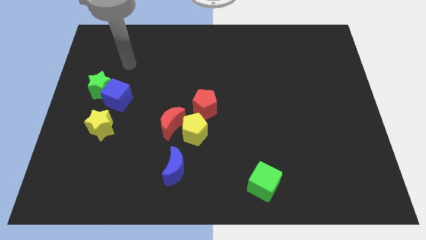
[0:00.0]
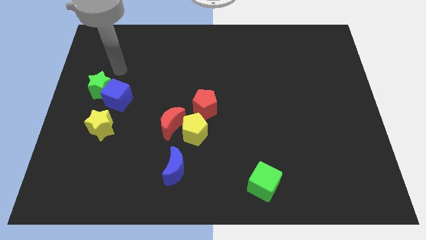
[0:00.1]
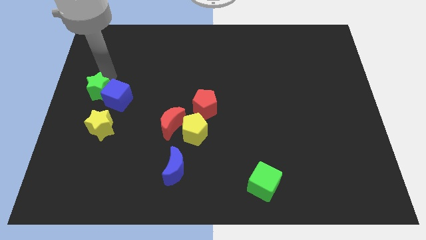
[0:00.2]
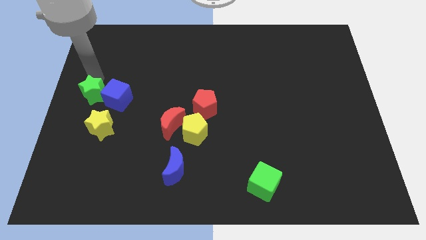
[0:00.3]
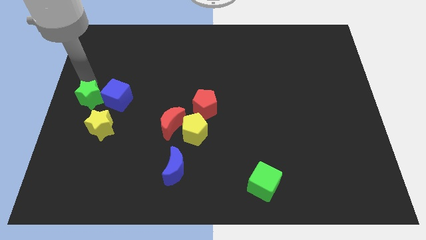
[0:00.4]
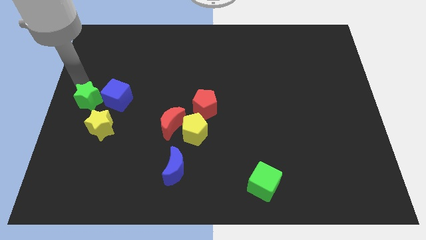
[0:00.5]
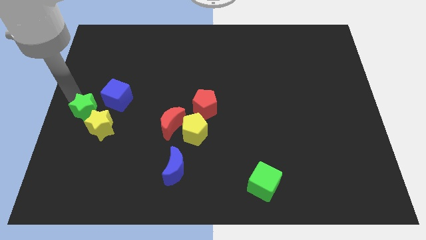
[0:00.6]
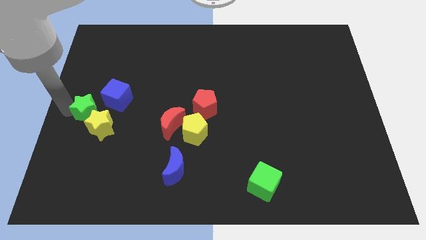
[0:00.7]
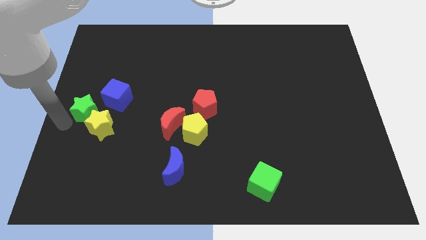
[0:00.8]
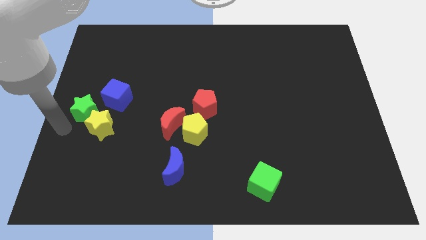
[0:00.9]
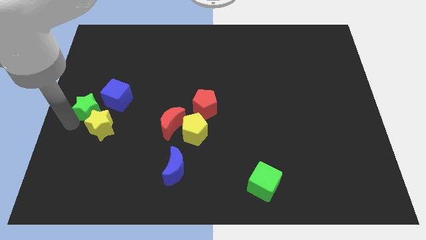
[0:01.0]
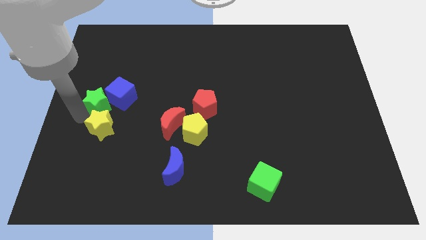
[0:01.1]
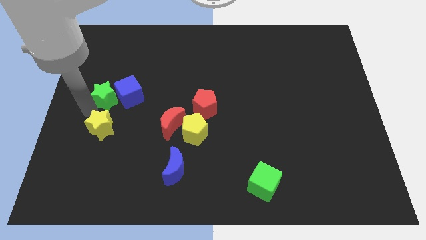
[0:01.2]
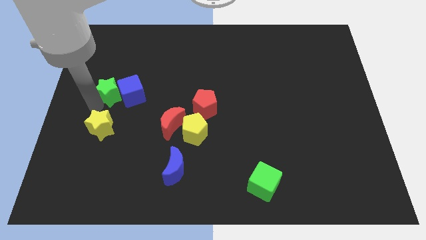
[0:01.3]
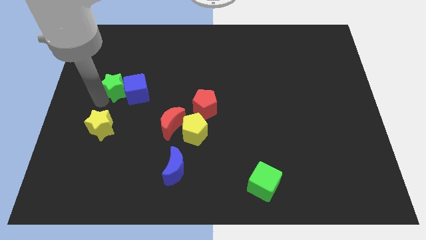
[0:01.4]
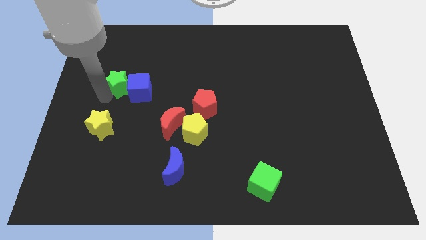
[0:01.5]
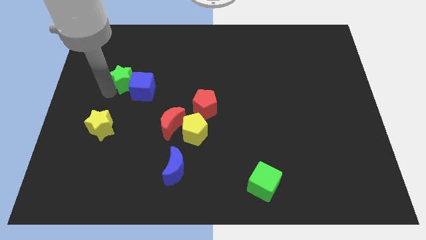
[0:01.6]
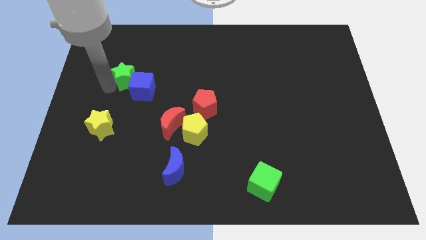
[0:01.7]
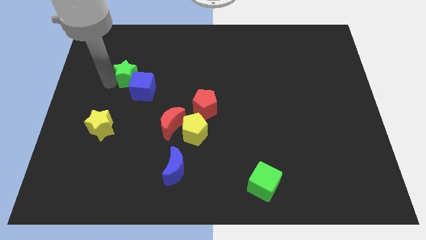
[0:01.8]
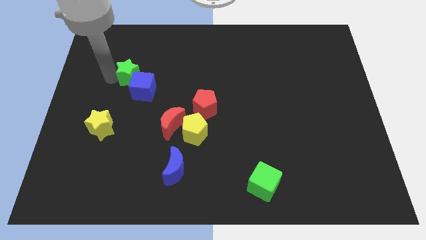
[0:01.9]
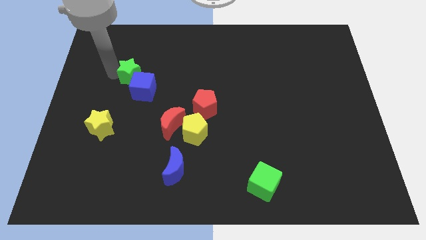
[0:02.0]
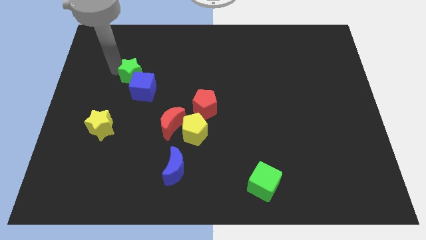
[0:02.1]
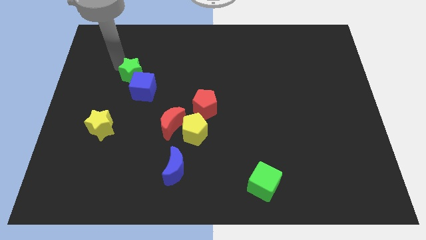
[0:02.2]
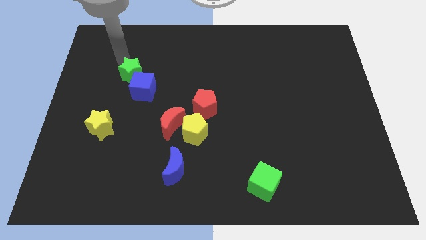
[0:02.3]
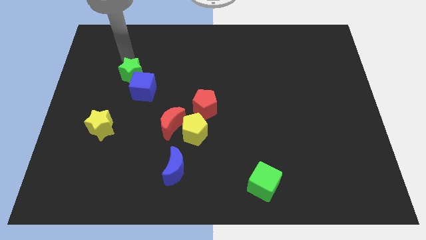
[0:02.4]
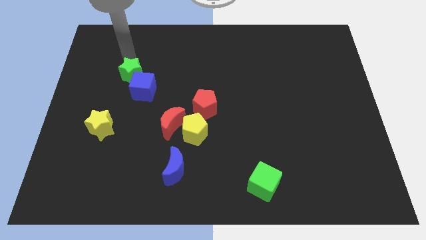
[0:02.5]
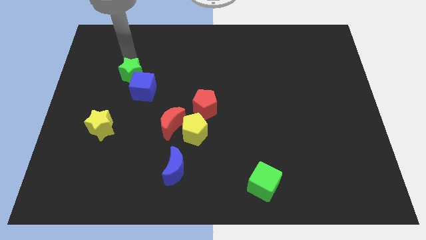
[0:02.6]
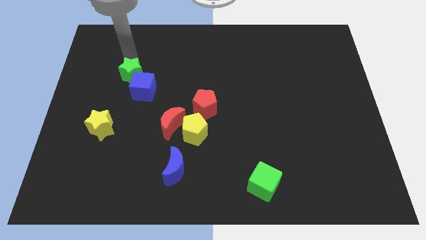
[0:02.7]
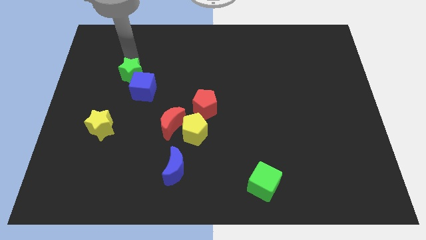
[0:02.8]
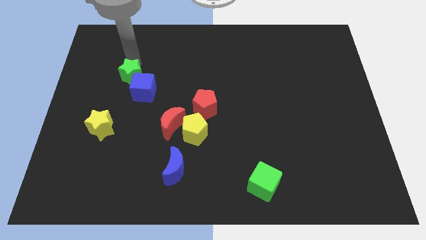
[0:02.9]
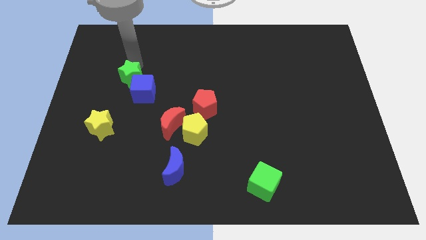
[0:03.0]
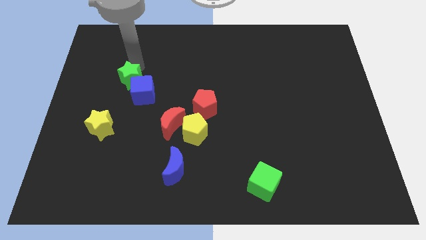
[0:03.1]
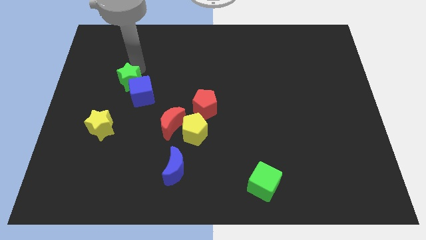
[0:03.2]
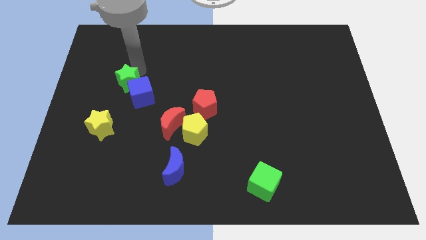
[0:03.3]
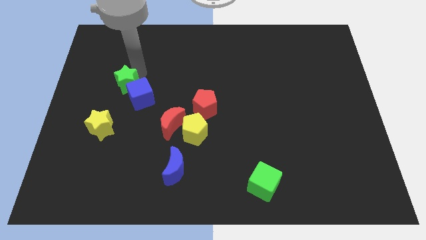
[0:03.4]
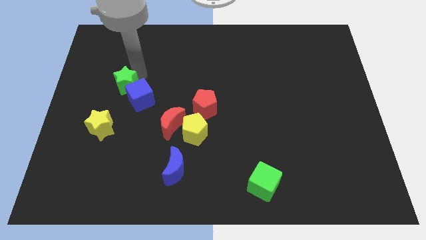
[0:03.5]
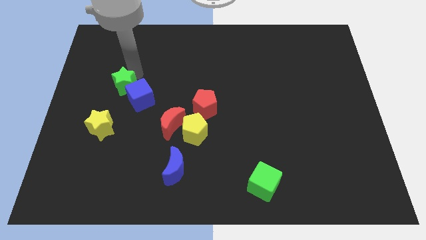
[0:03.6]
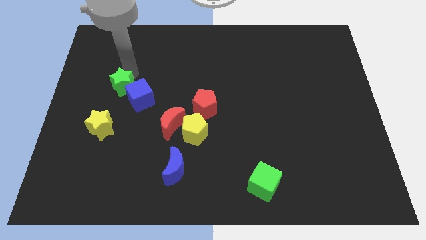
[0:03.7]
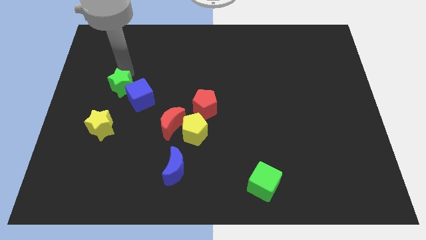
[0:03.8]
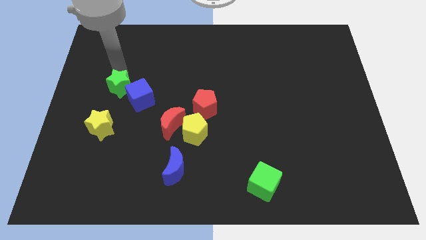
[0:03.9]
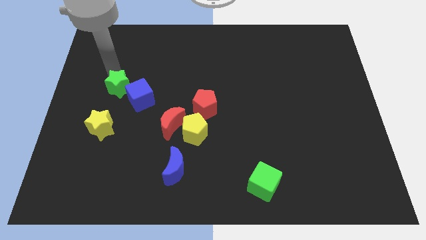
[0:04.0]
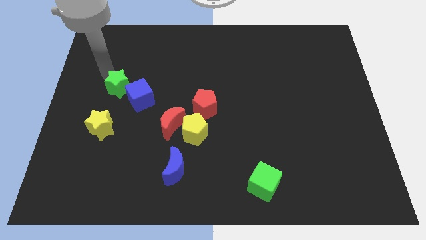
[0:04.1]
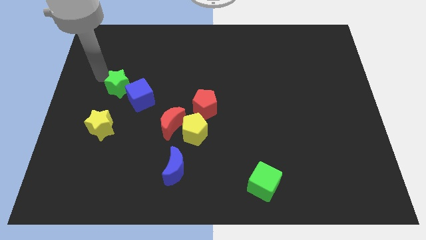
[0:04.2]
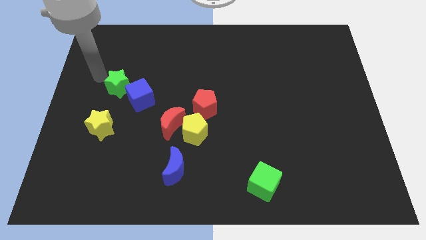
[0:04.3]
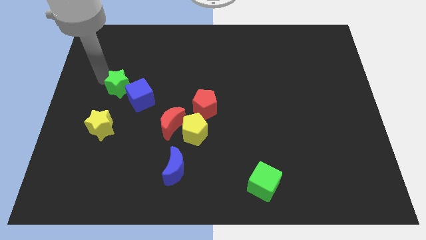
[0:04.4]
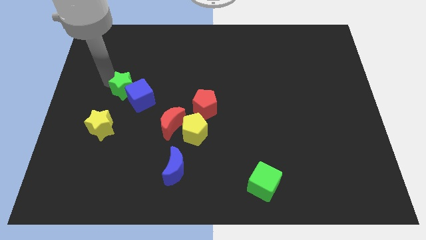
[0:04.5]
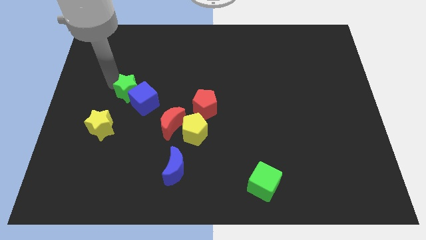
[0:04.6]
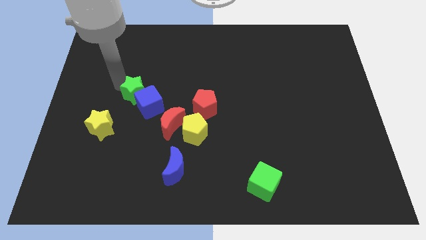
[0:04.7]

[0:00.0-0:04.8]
put the green star to the top right side of the yellow star

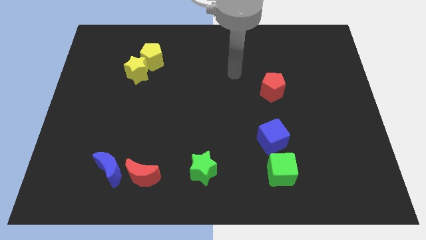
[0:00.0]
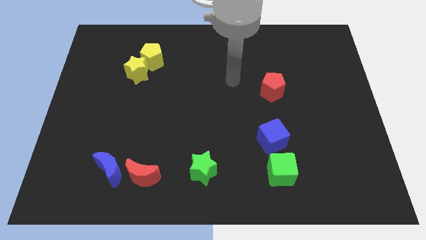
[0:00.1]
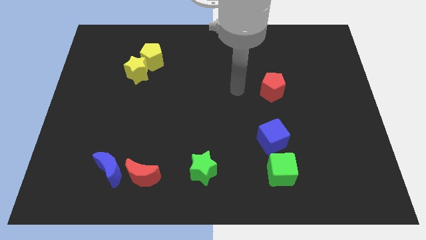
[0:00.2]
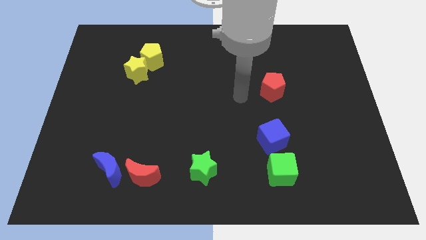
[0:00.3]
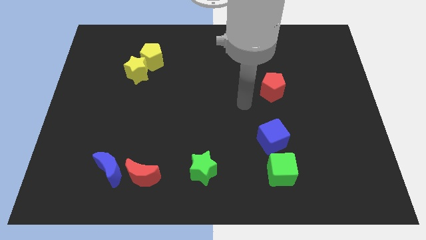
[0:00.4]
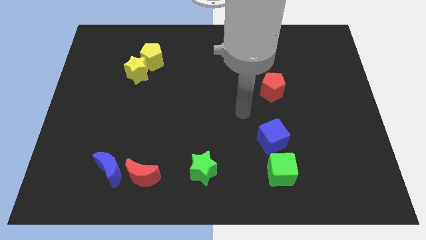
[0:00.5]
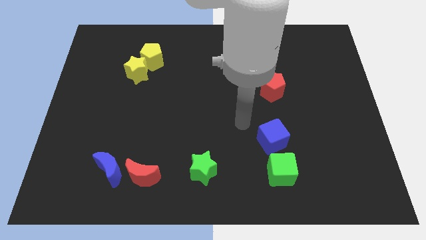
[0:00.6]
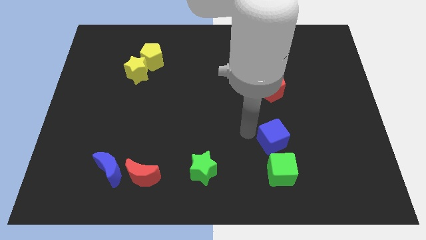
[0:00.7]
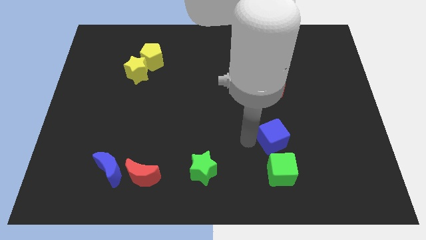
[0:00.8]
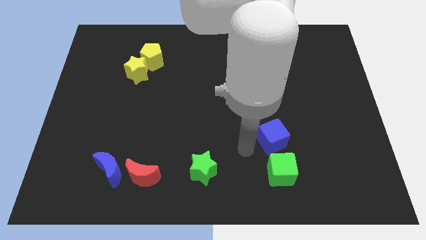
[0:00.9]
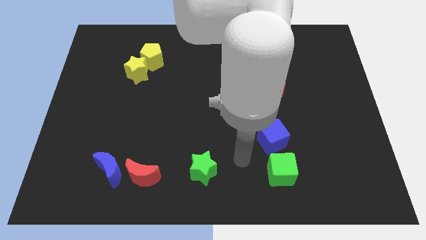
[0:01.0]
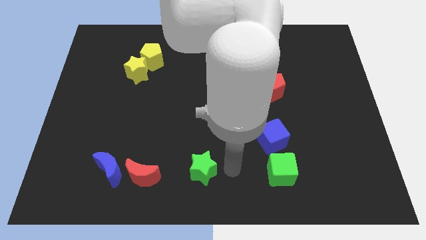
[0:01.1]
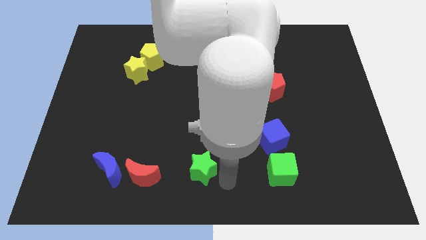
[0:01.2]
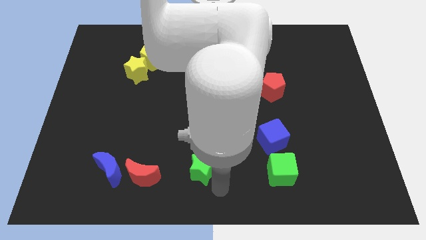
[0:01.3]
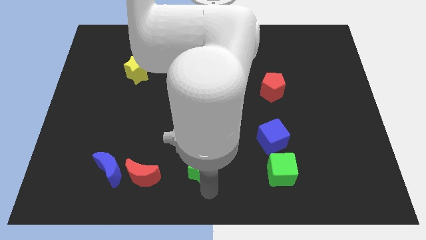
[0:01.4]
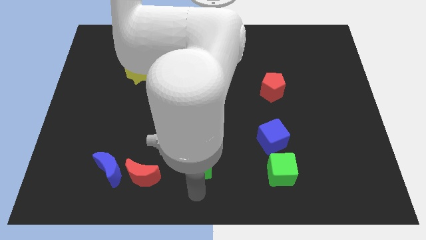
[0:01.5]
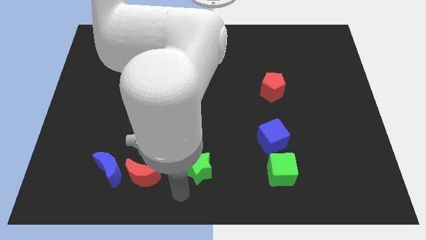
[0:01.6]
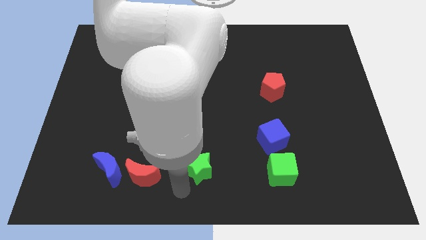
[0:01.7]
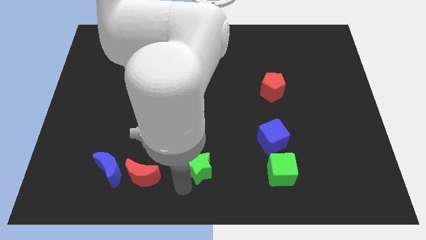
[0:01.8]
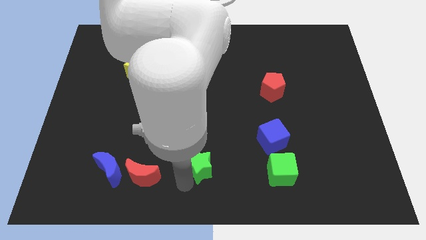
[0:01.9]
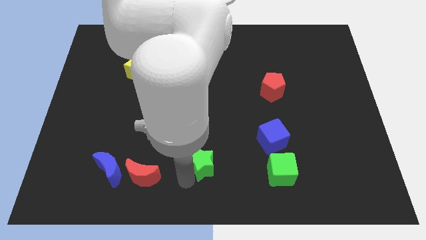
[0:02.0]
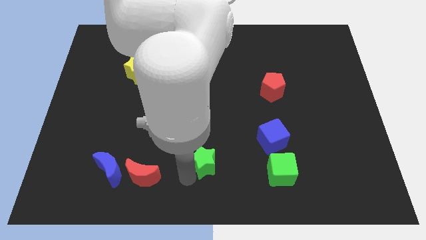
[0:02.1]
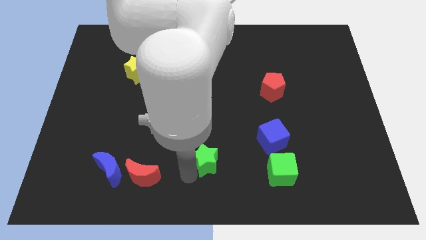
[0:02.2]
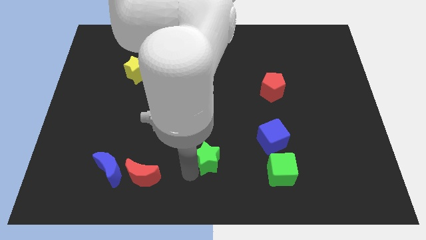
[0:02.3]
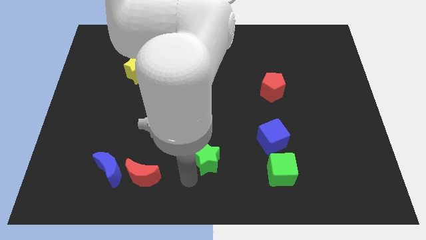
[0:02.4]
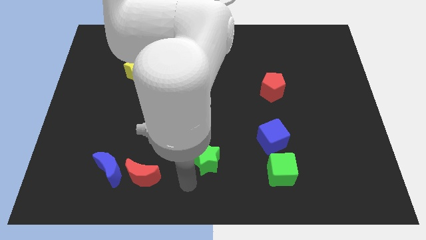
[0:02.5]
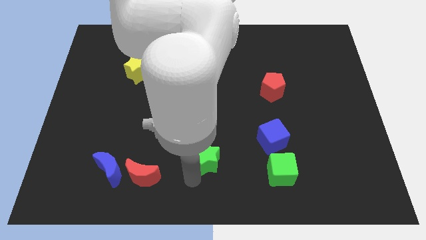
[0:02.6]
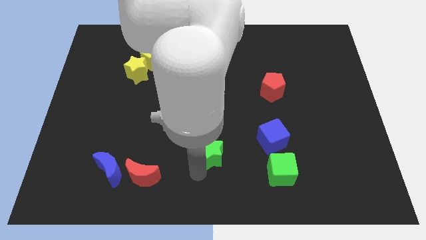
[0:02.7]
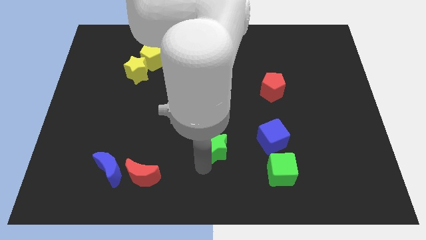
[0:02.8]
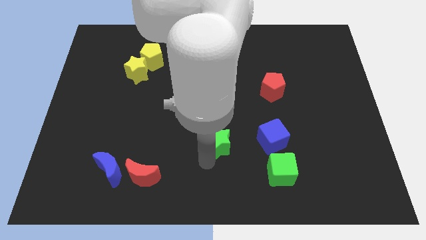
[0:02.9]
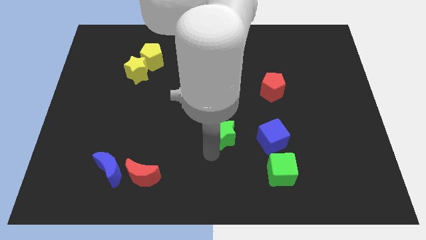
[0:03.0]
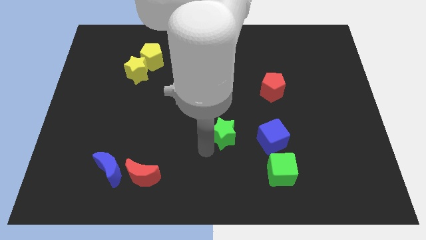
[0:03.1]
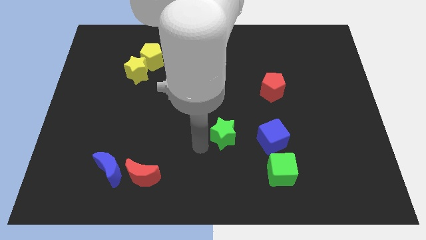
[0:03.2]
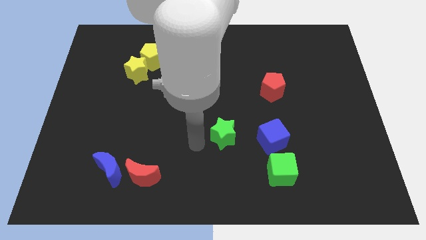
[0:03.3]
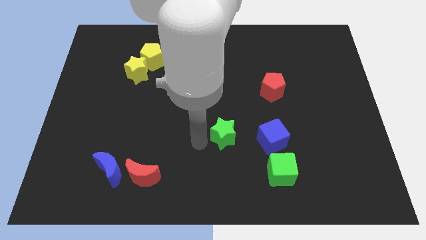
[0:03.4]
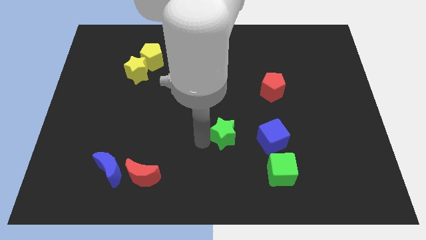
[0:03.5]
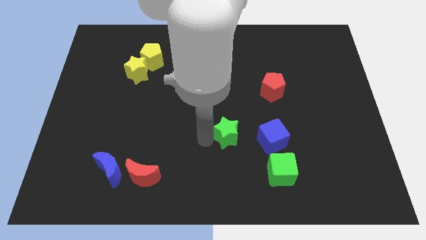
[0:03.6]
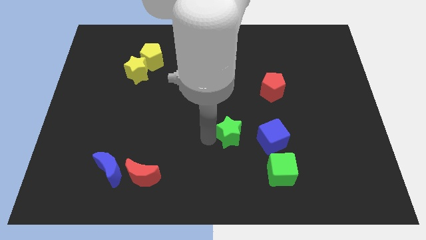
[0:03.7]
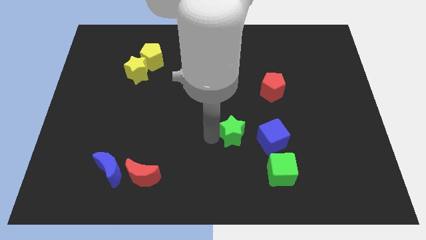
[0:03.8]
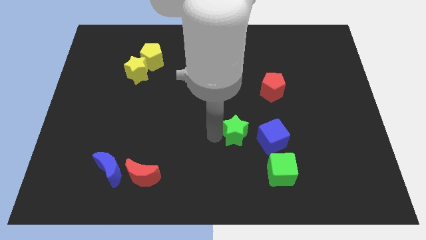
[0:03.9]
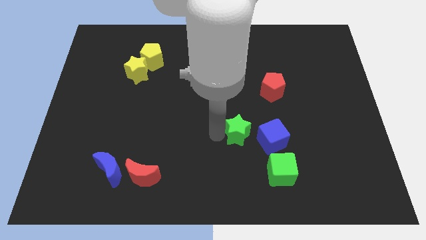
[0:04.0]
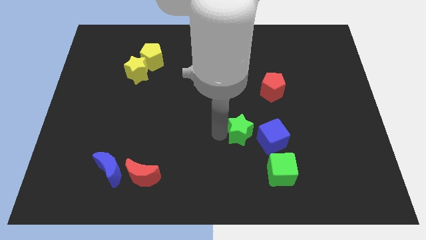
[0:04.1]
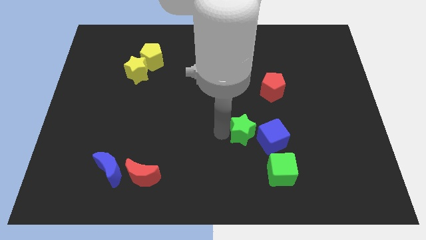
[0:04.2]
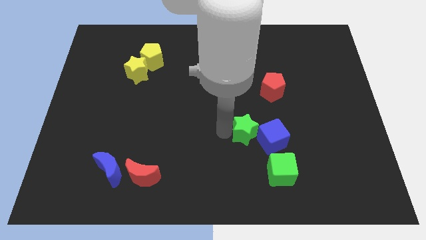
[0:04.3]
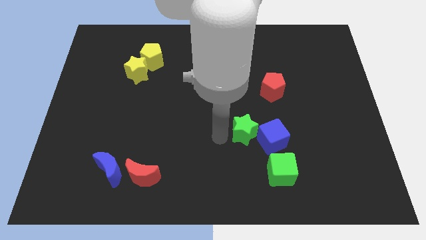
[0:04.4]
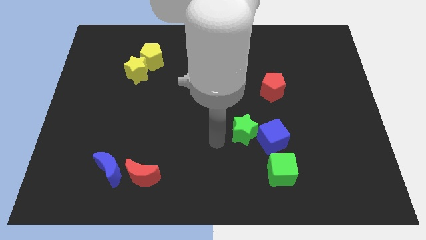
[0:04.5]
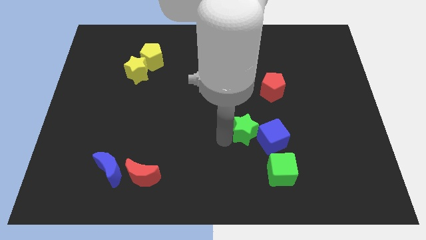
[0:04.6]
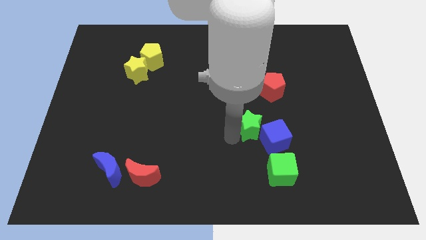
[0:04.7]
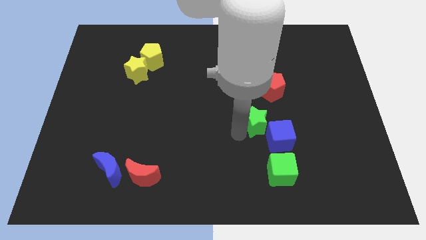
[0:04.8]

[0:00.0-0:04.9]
slide the green star to the bottom of the red pentagon
